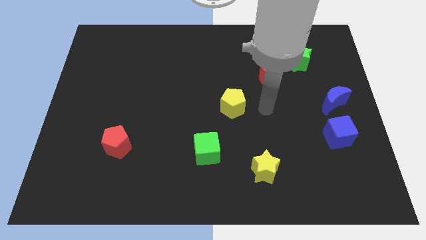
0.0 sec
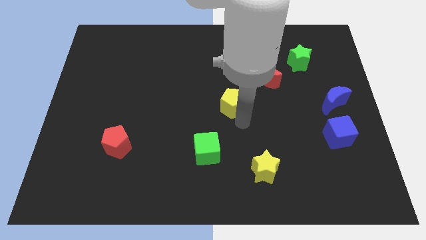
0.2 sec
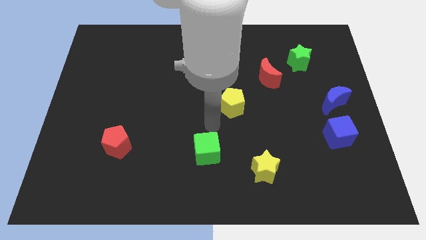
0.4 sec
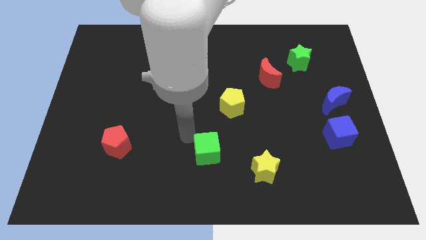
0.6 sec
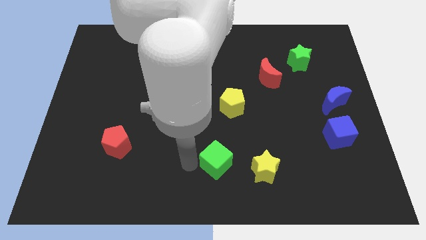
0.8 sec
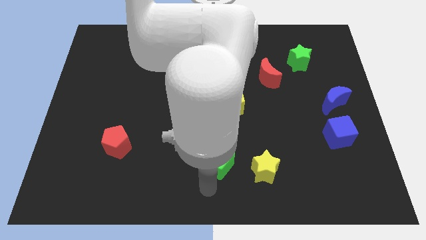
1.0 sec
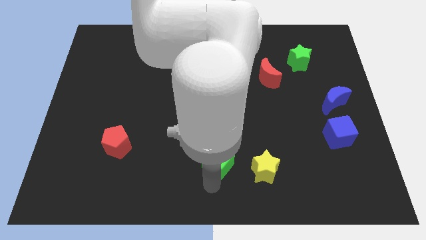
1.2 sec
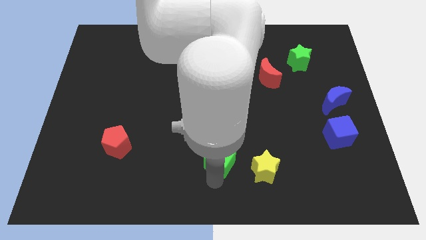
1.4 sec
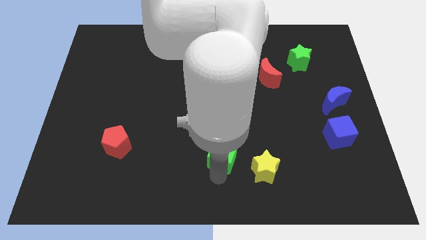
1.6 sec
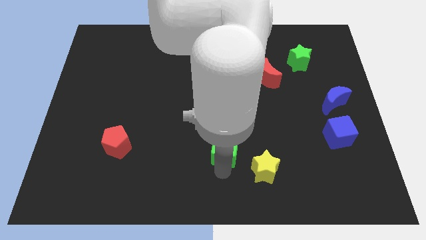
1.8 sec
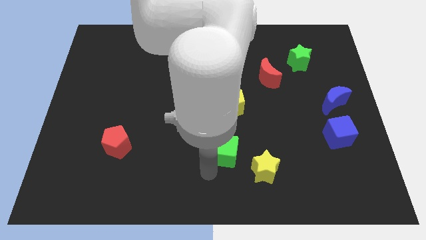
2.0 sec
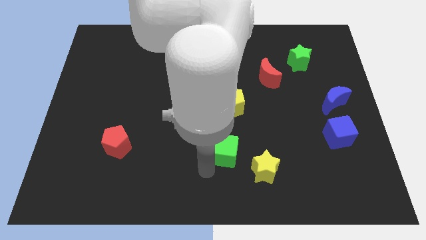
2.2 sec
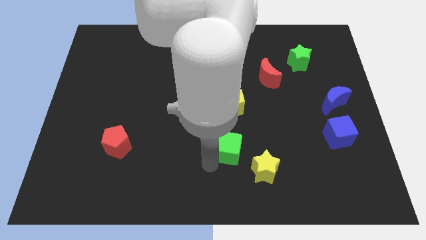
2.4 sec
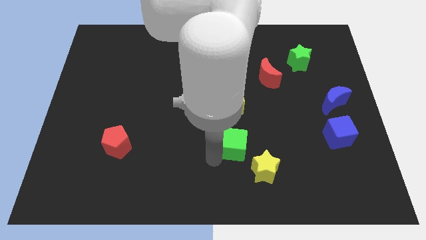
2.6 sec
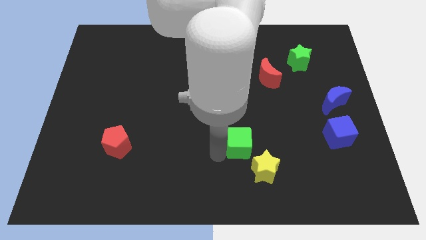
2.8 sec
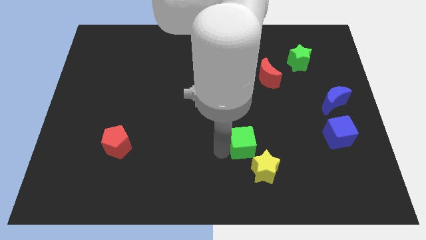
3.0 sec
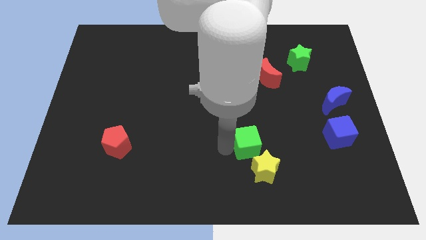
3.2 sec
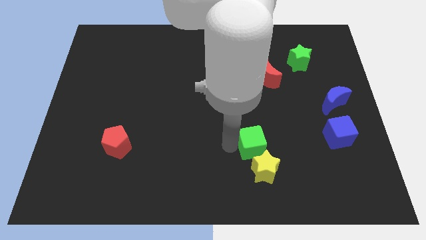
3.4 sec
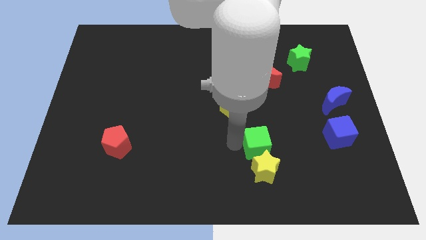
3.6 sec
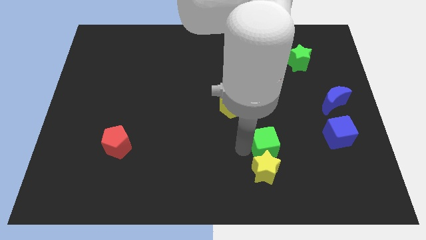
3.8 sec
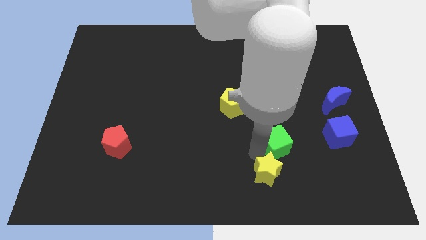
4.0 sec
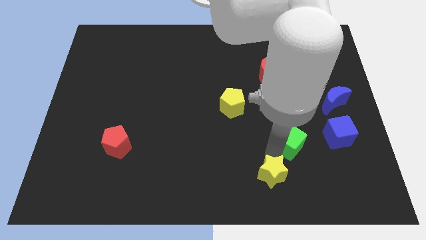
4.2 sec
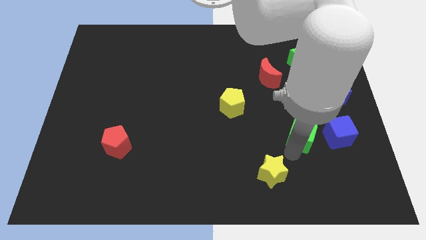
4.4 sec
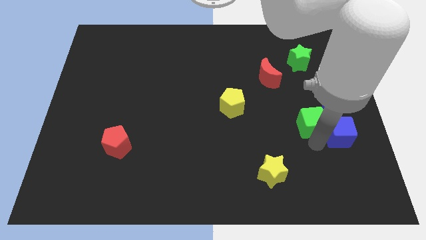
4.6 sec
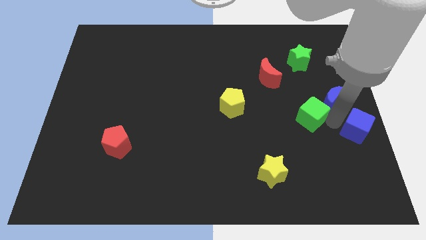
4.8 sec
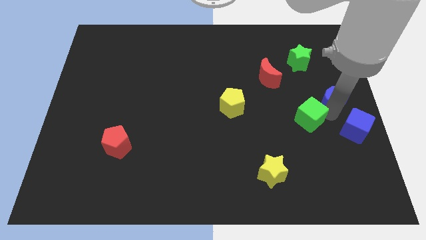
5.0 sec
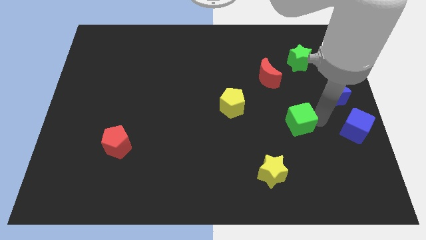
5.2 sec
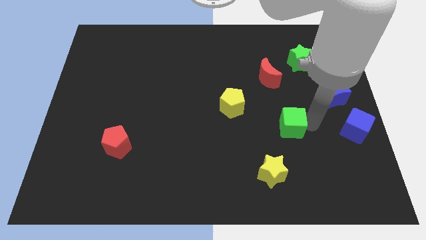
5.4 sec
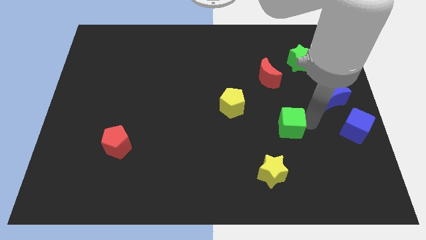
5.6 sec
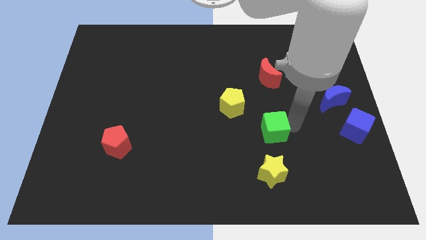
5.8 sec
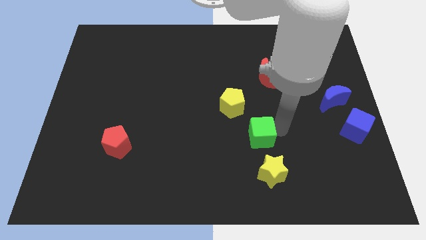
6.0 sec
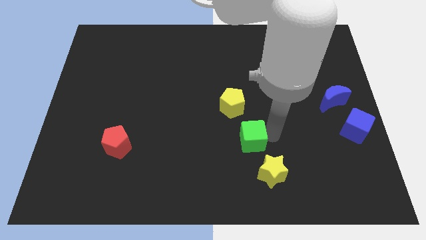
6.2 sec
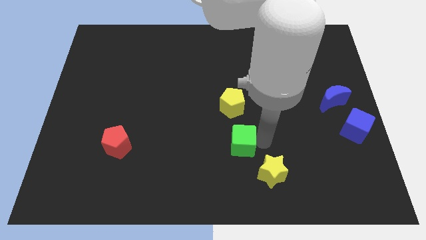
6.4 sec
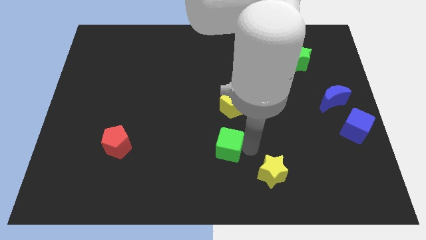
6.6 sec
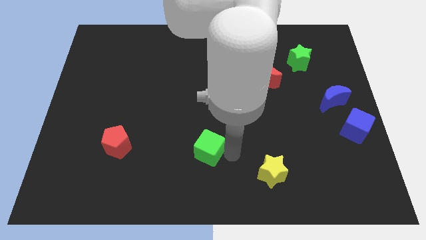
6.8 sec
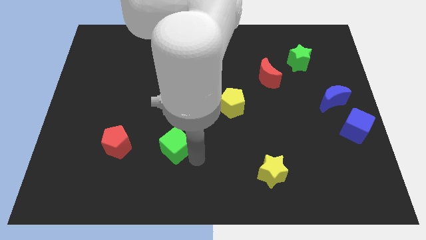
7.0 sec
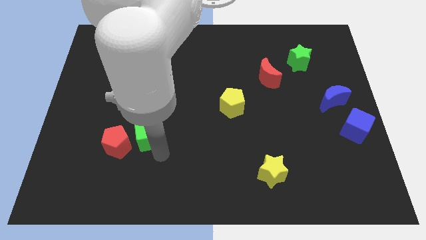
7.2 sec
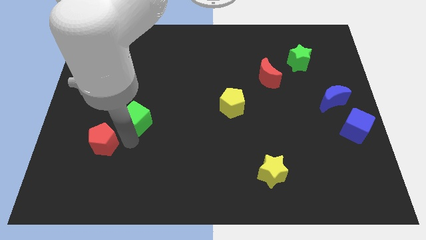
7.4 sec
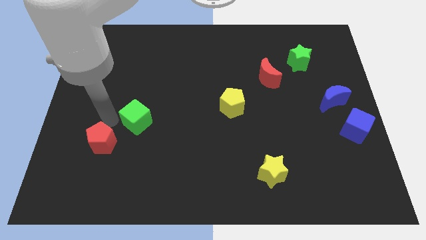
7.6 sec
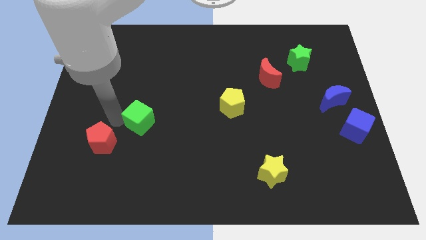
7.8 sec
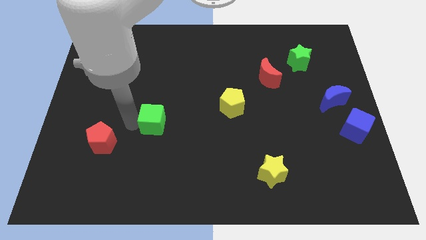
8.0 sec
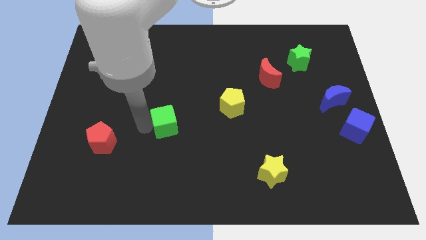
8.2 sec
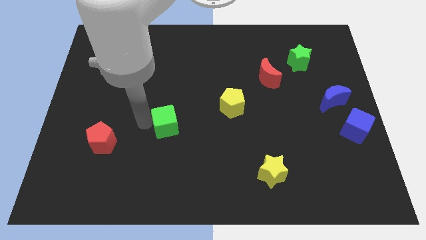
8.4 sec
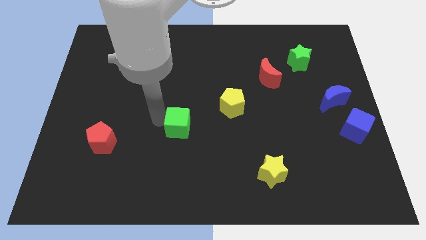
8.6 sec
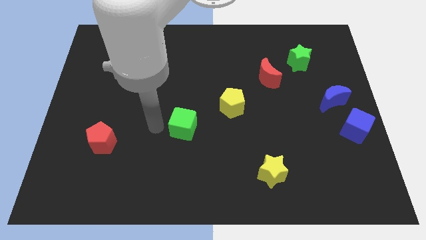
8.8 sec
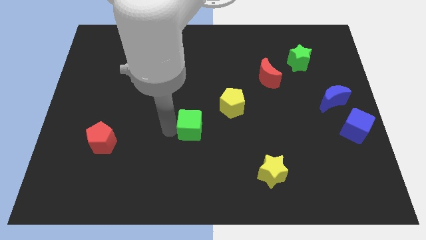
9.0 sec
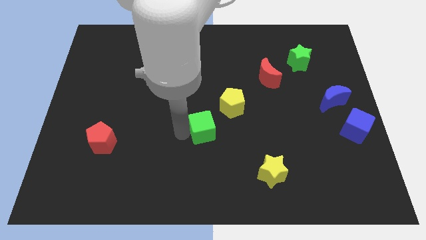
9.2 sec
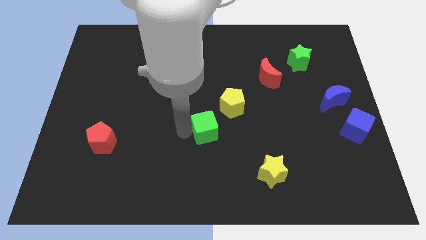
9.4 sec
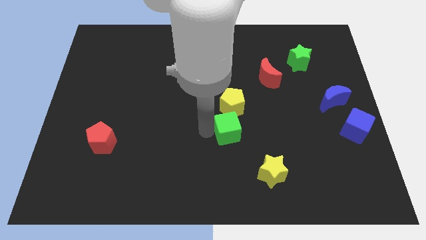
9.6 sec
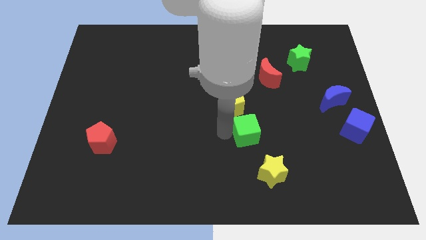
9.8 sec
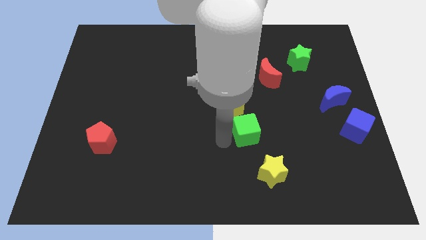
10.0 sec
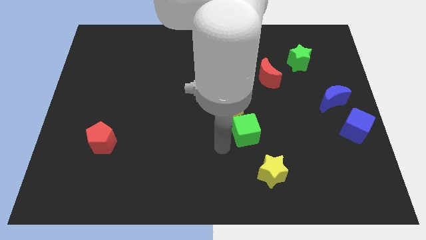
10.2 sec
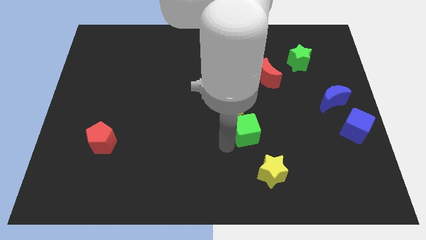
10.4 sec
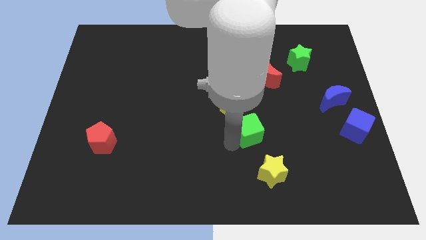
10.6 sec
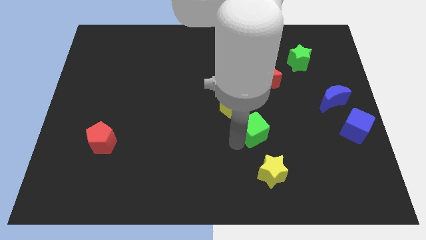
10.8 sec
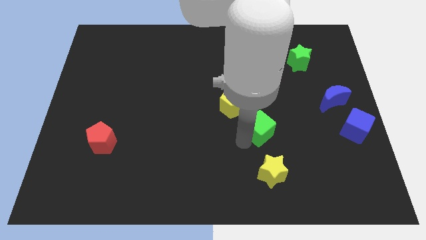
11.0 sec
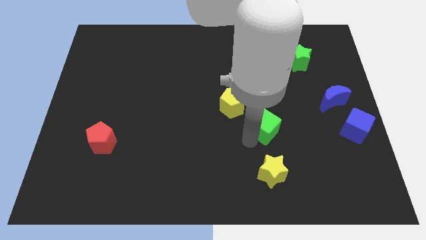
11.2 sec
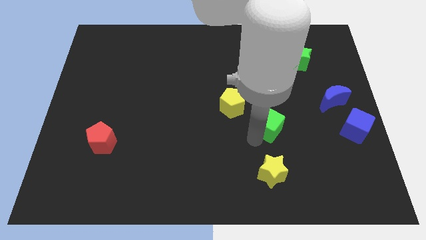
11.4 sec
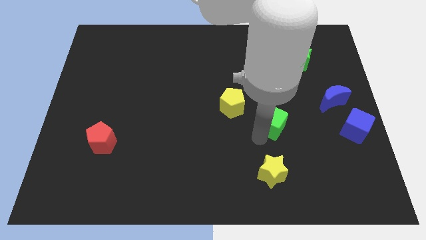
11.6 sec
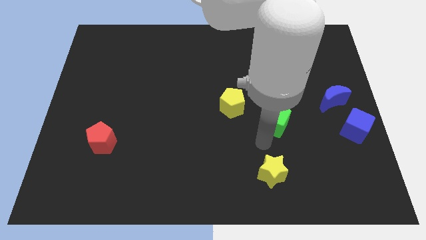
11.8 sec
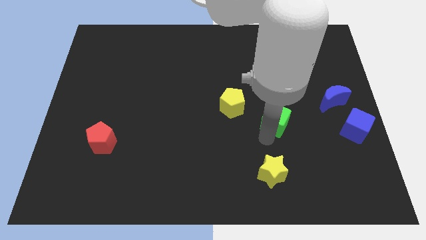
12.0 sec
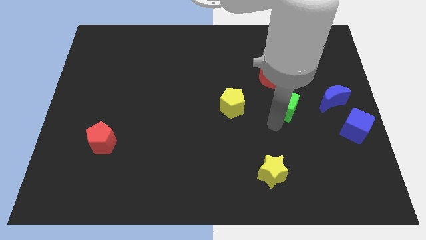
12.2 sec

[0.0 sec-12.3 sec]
put the green cube to the bottom right of the red moon

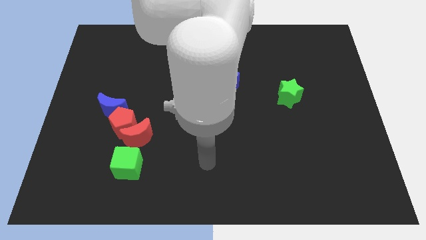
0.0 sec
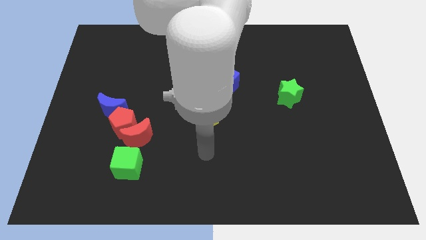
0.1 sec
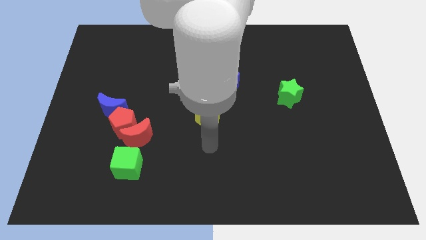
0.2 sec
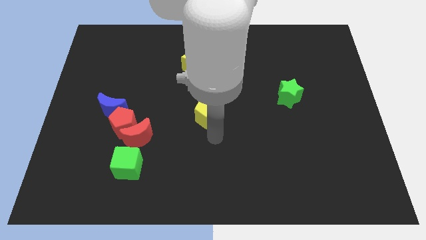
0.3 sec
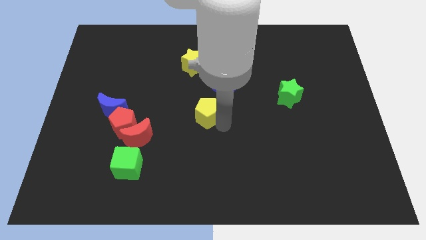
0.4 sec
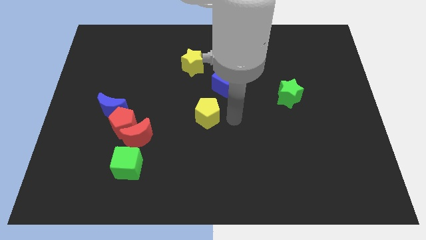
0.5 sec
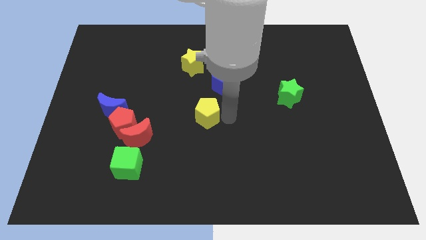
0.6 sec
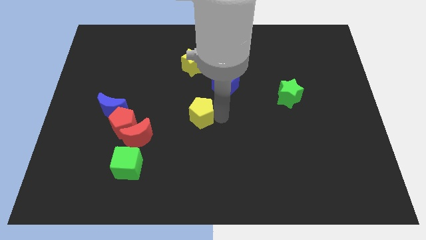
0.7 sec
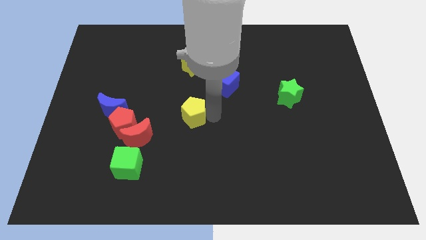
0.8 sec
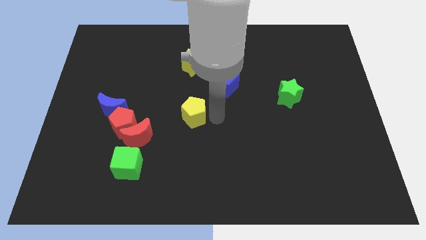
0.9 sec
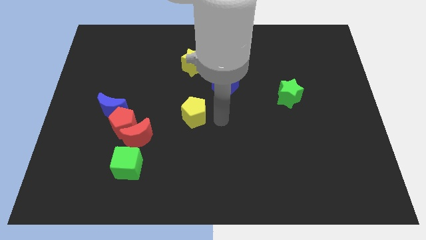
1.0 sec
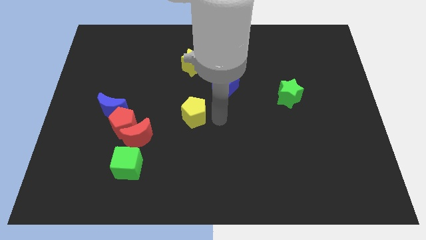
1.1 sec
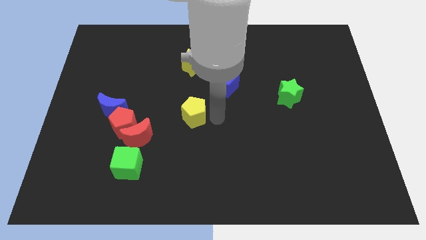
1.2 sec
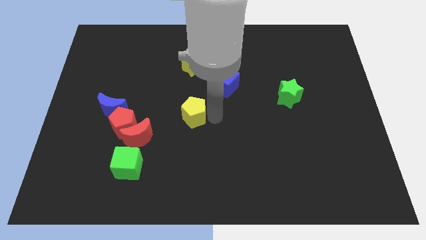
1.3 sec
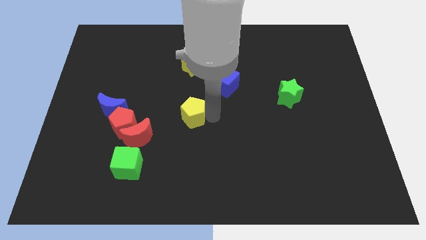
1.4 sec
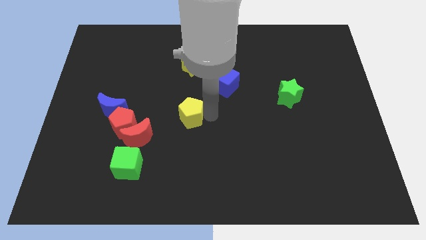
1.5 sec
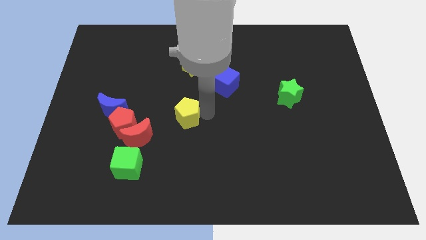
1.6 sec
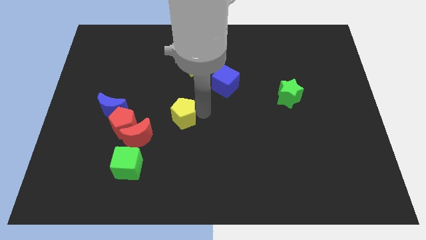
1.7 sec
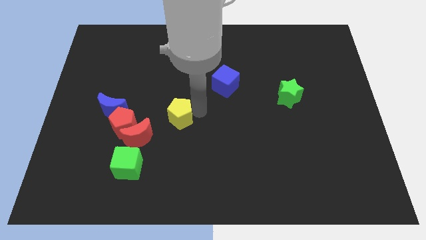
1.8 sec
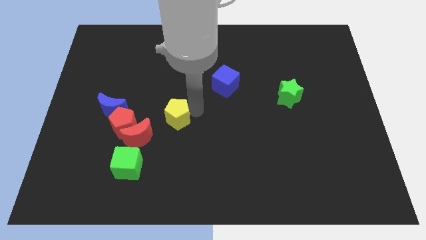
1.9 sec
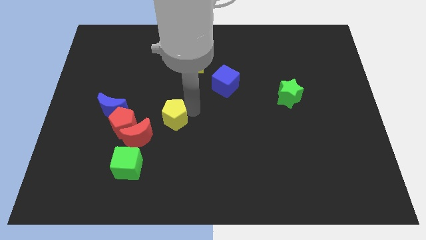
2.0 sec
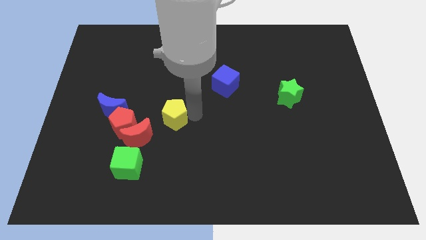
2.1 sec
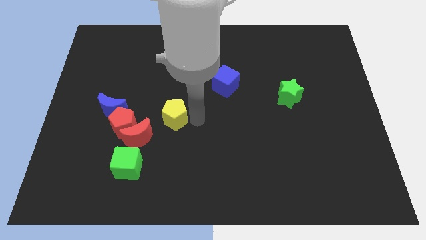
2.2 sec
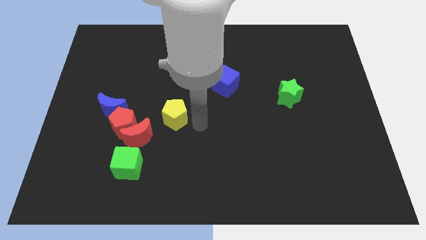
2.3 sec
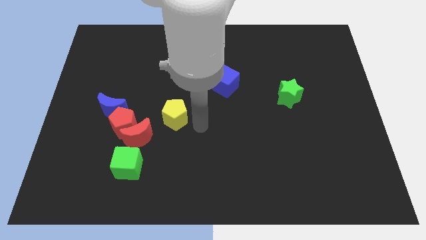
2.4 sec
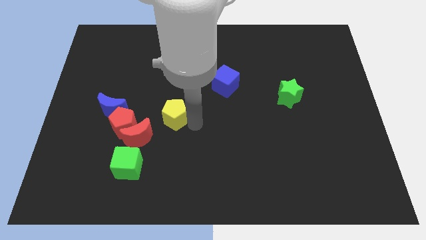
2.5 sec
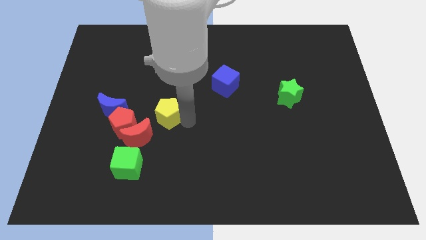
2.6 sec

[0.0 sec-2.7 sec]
move the yellow pentagon to the top right of the red pentagon
